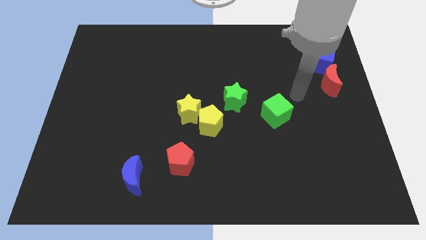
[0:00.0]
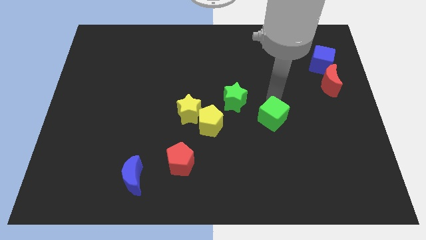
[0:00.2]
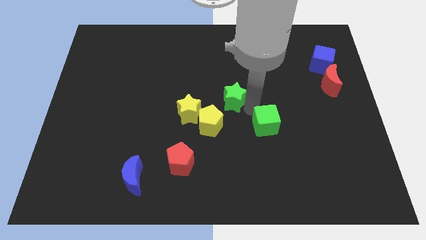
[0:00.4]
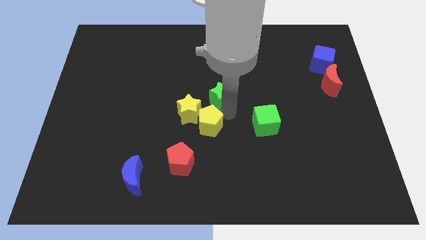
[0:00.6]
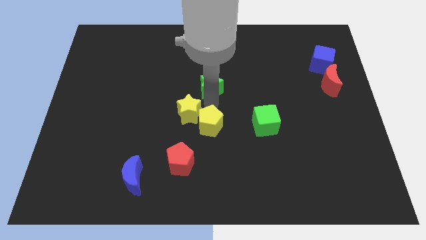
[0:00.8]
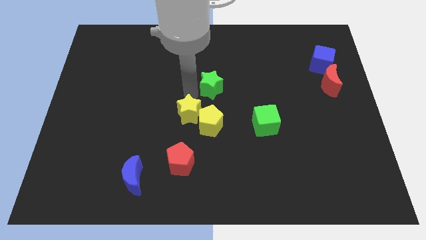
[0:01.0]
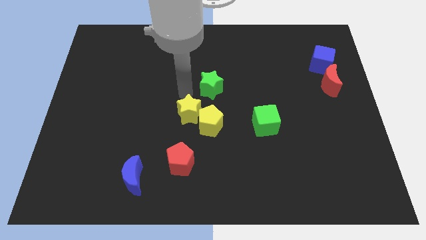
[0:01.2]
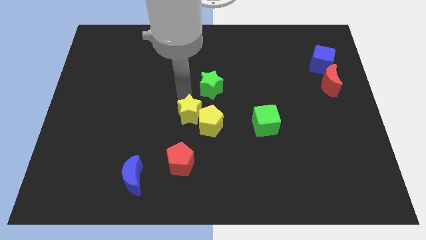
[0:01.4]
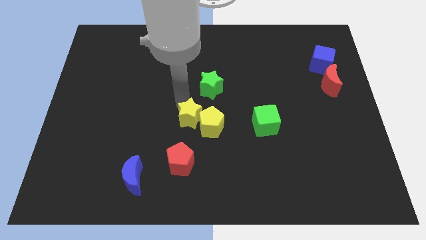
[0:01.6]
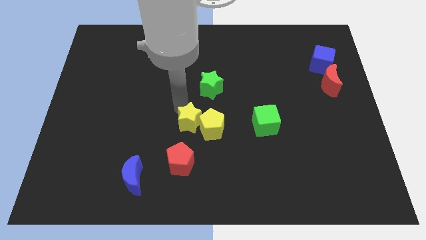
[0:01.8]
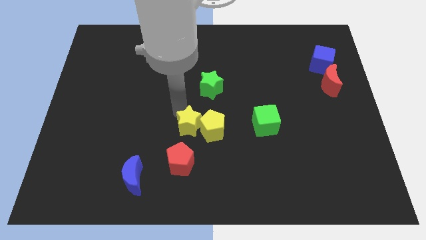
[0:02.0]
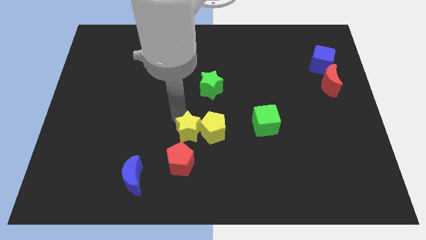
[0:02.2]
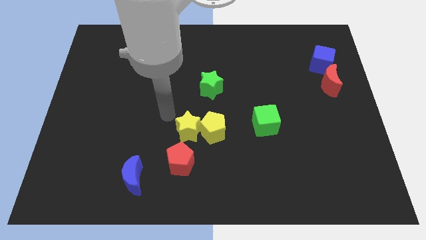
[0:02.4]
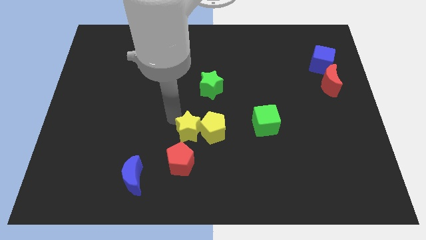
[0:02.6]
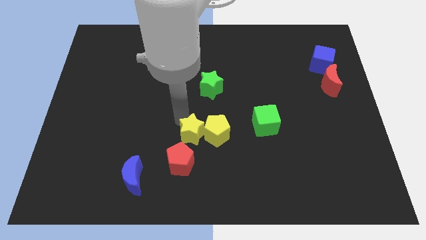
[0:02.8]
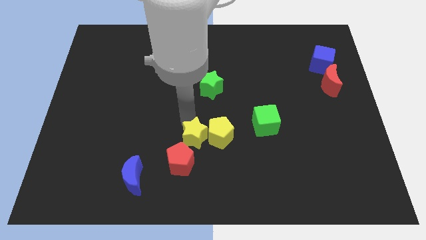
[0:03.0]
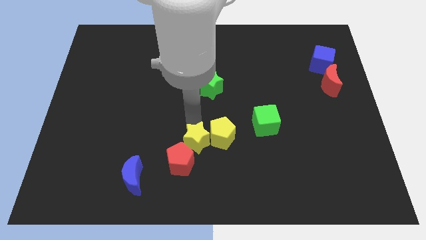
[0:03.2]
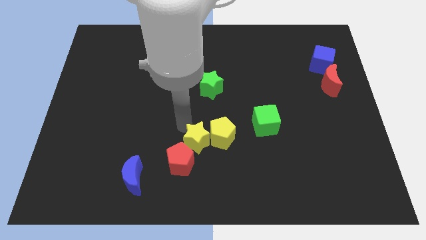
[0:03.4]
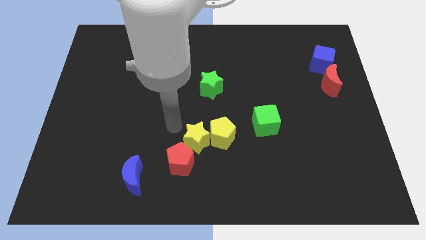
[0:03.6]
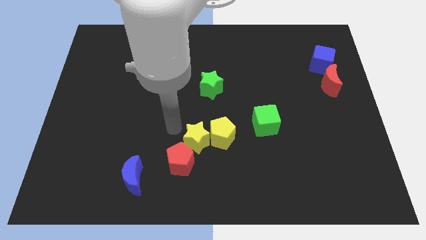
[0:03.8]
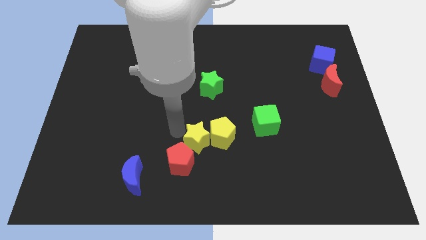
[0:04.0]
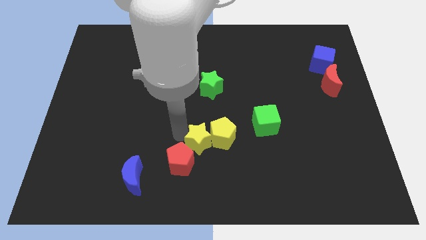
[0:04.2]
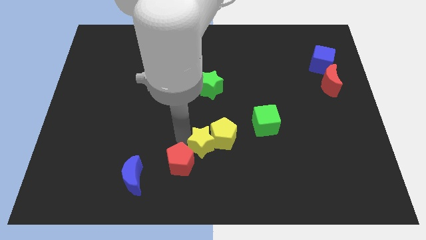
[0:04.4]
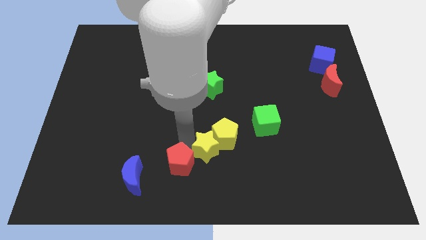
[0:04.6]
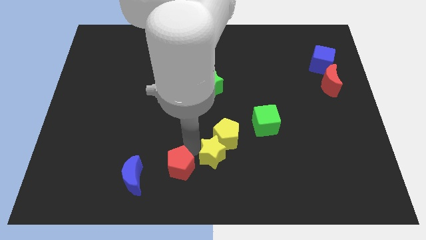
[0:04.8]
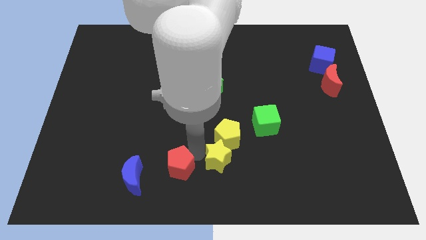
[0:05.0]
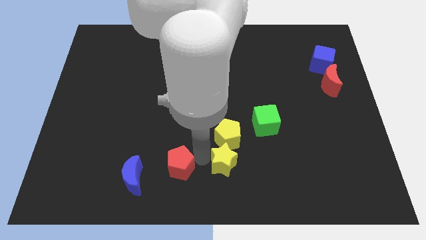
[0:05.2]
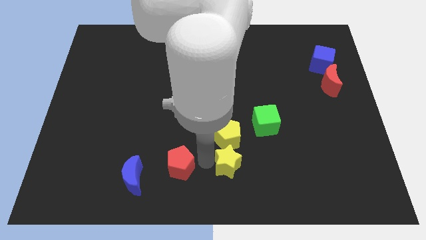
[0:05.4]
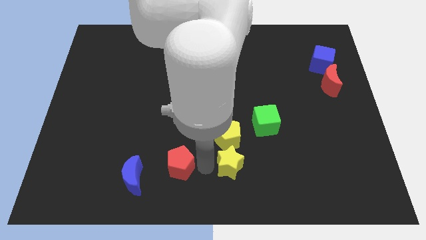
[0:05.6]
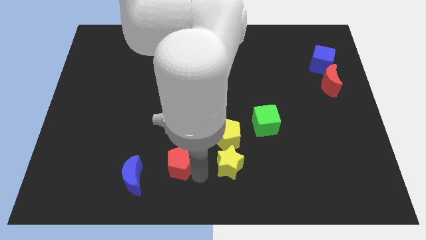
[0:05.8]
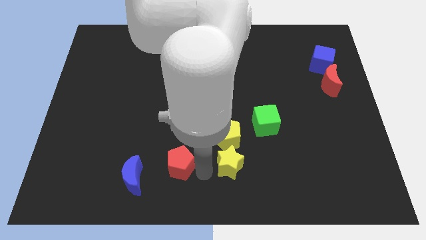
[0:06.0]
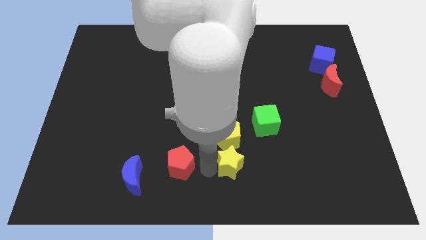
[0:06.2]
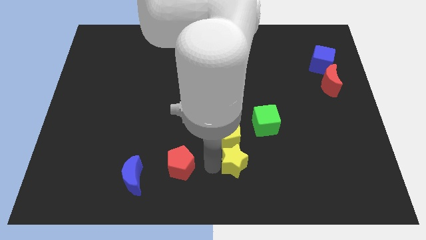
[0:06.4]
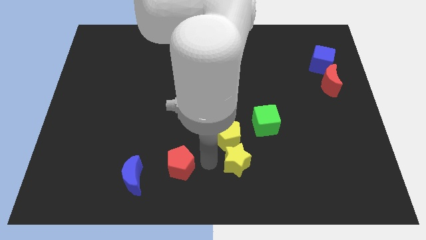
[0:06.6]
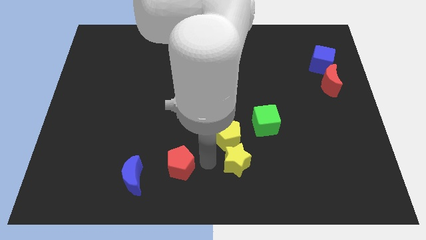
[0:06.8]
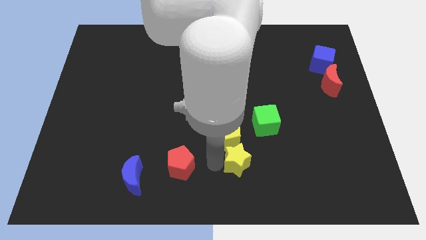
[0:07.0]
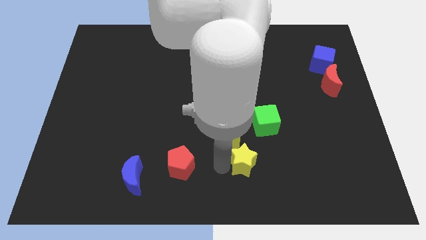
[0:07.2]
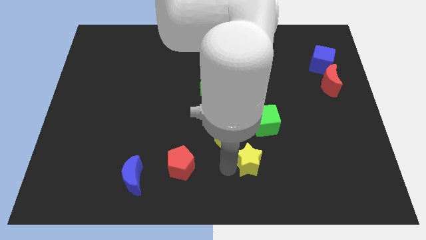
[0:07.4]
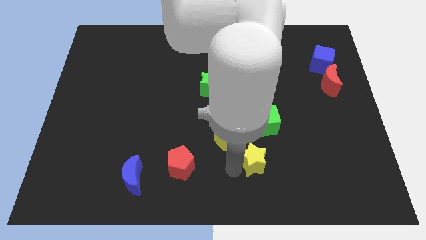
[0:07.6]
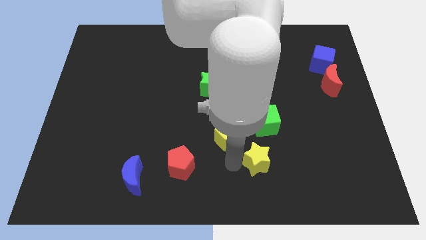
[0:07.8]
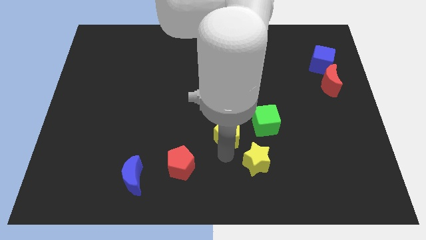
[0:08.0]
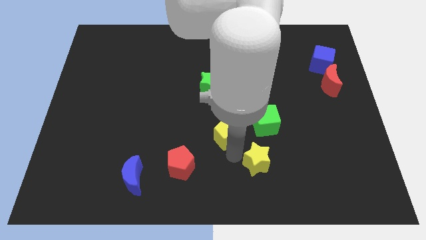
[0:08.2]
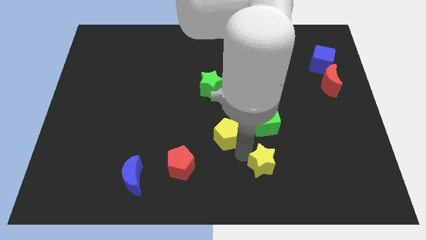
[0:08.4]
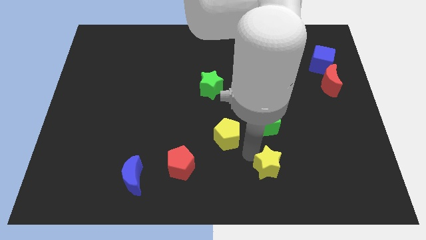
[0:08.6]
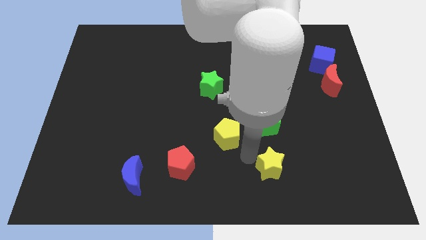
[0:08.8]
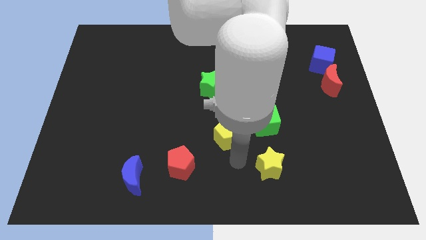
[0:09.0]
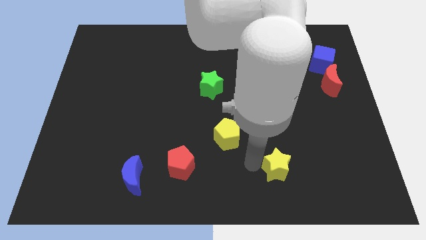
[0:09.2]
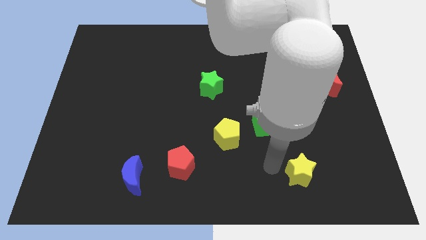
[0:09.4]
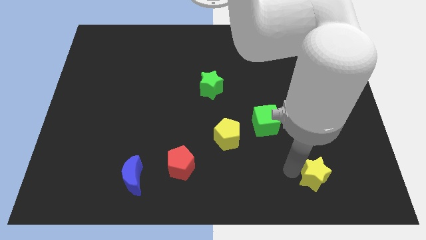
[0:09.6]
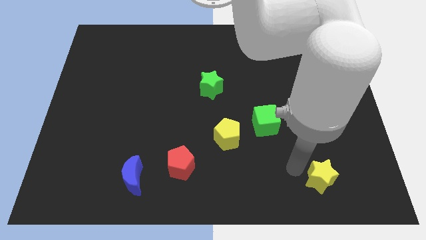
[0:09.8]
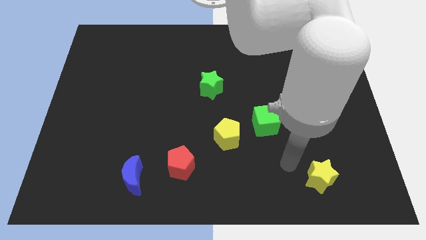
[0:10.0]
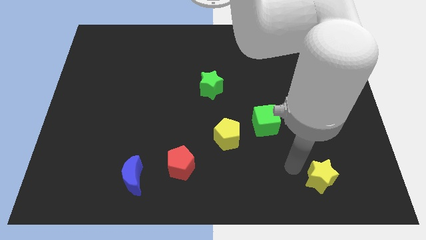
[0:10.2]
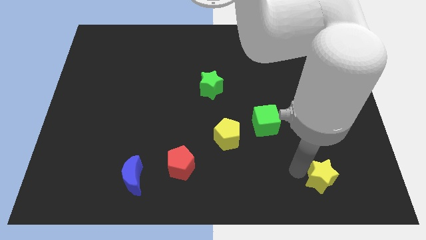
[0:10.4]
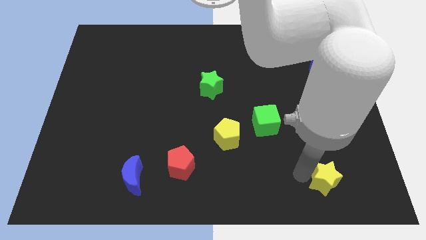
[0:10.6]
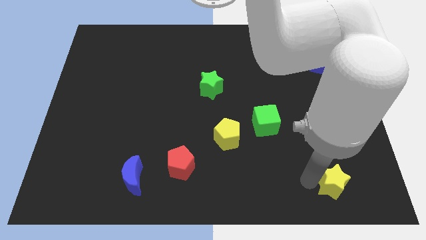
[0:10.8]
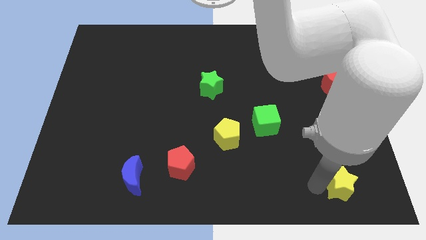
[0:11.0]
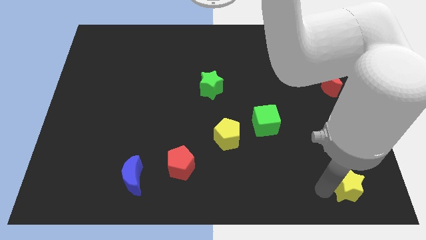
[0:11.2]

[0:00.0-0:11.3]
slide the yellow star to the lower right corner

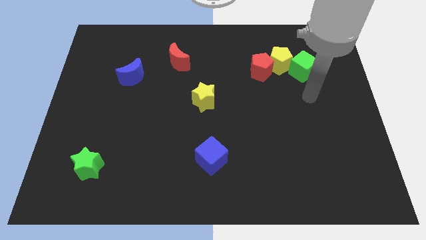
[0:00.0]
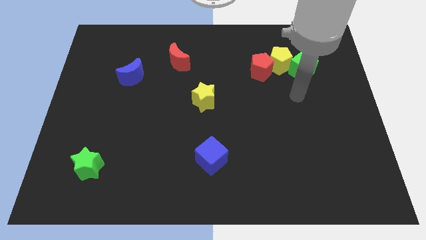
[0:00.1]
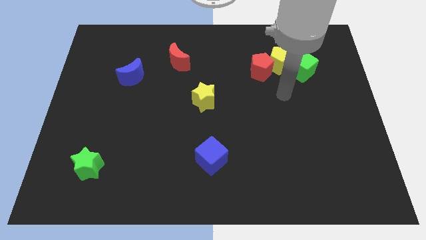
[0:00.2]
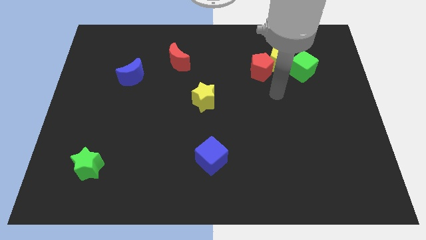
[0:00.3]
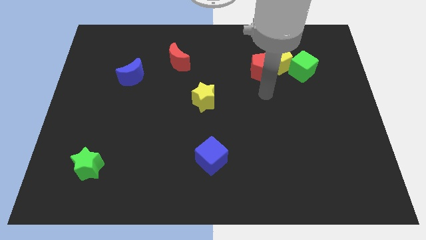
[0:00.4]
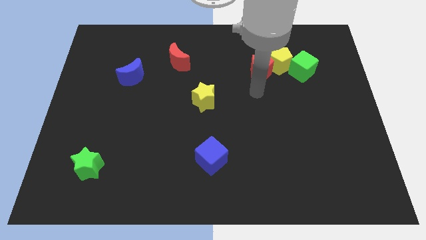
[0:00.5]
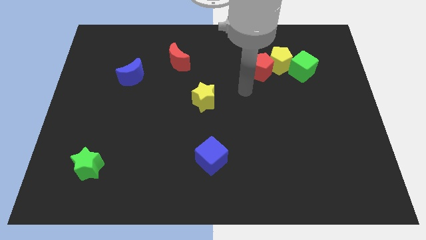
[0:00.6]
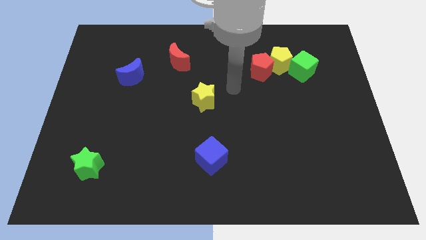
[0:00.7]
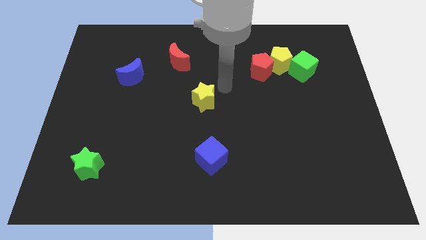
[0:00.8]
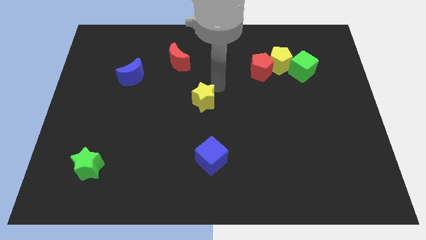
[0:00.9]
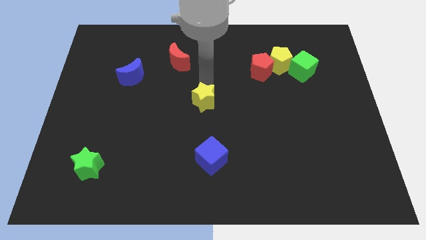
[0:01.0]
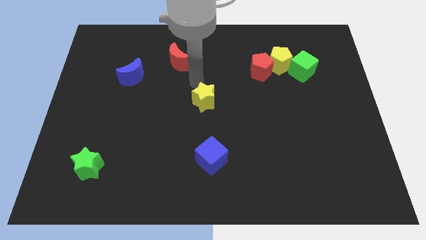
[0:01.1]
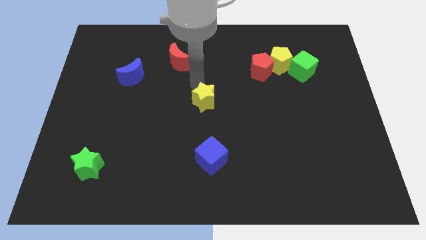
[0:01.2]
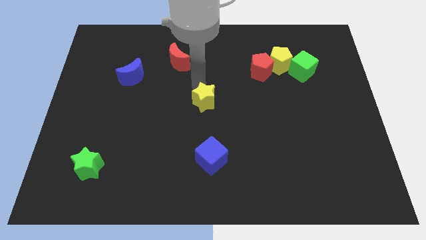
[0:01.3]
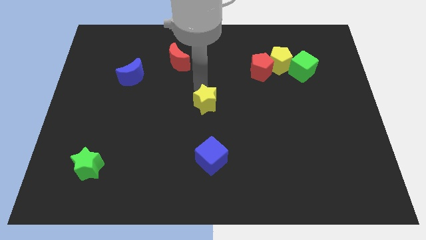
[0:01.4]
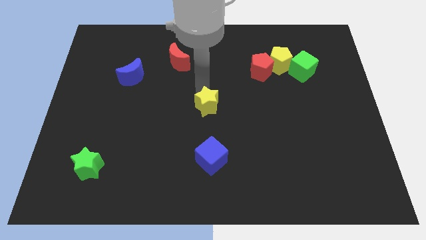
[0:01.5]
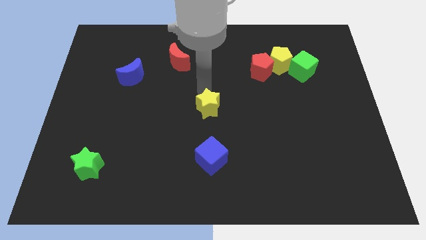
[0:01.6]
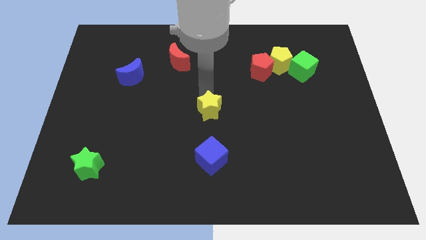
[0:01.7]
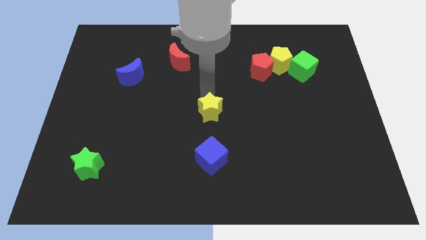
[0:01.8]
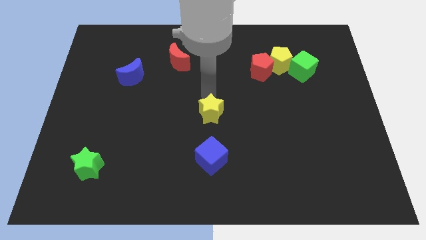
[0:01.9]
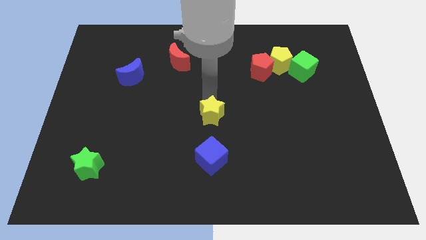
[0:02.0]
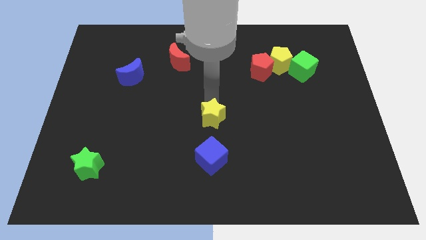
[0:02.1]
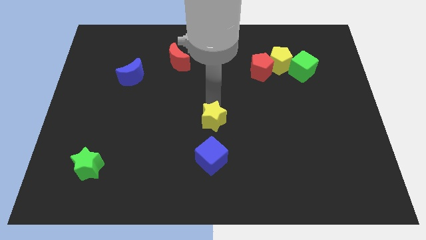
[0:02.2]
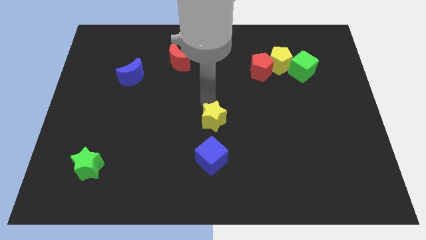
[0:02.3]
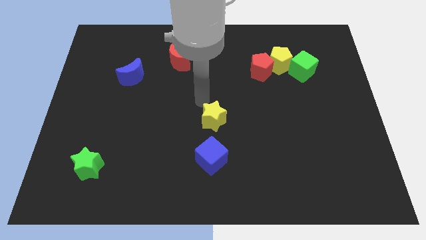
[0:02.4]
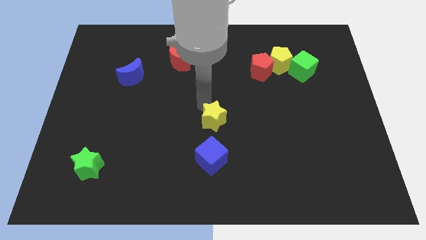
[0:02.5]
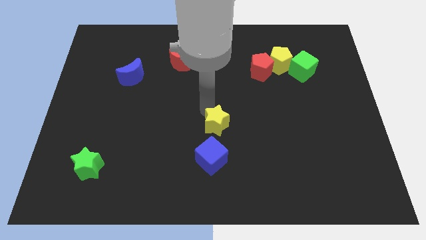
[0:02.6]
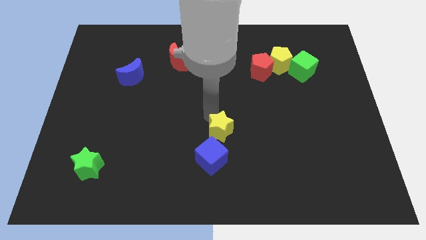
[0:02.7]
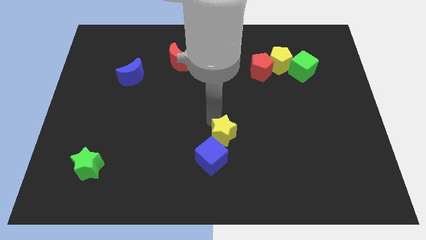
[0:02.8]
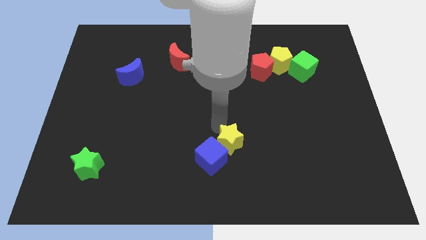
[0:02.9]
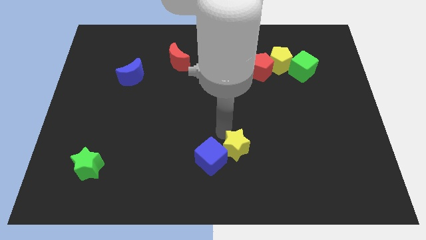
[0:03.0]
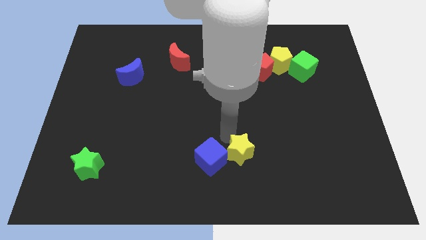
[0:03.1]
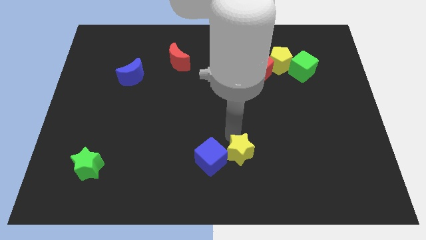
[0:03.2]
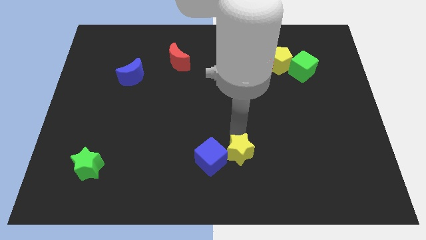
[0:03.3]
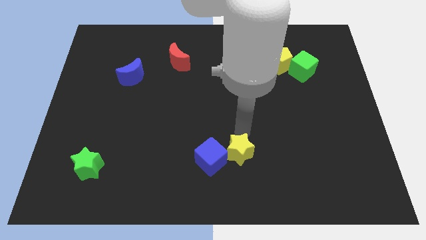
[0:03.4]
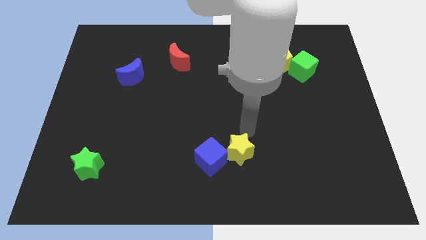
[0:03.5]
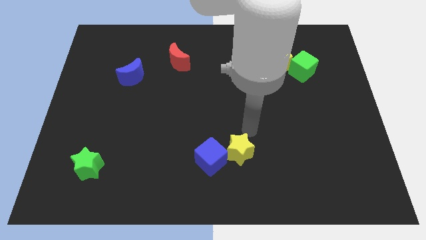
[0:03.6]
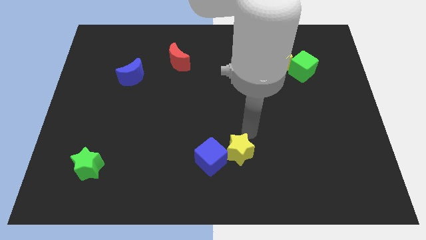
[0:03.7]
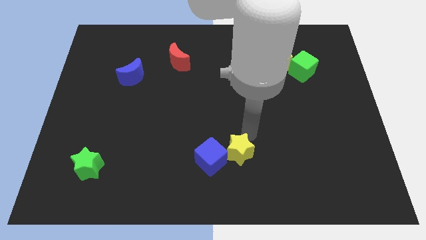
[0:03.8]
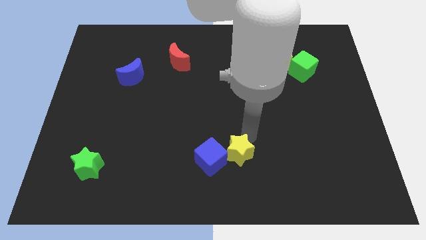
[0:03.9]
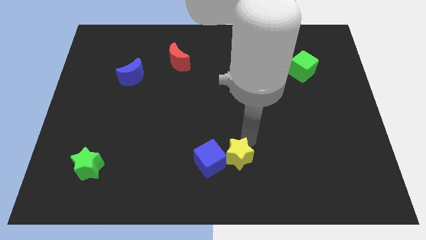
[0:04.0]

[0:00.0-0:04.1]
push the yellow star to the bottom
